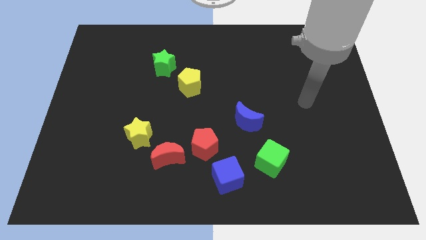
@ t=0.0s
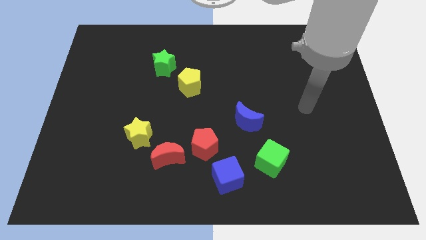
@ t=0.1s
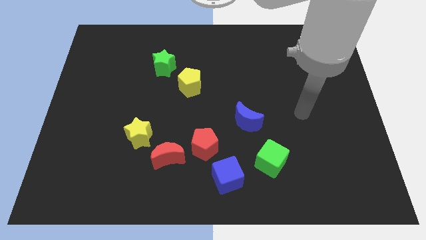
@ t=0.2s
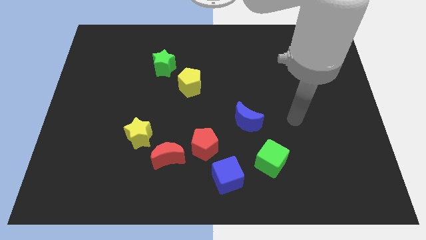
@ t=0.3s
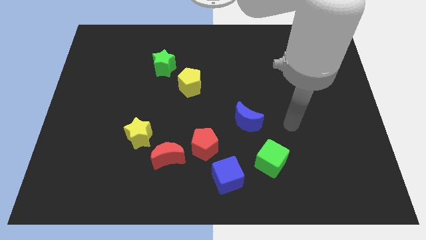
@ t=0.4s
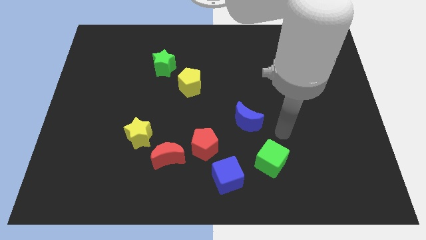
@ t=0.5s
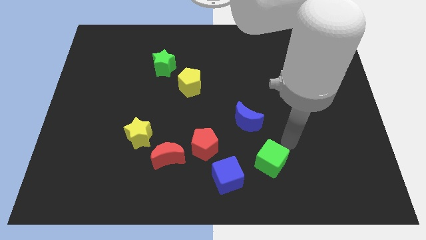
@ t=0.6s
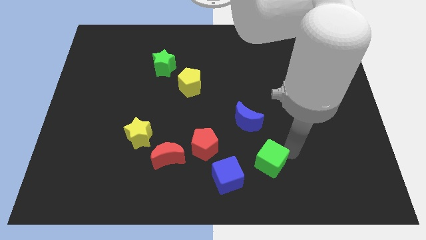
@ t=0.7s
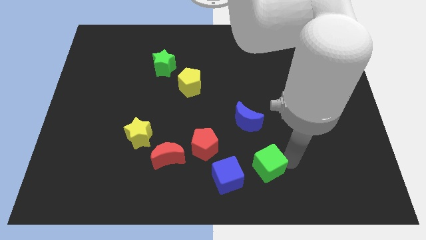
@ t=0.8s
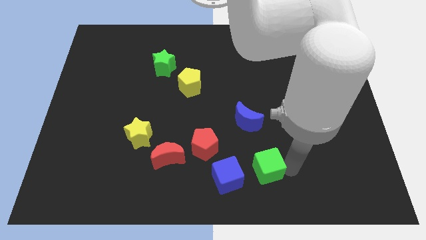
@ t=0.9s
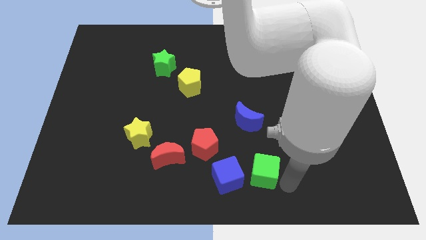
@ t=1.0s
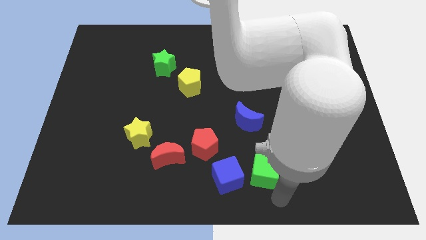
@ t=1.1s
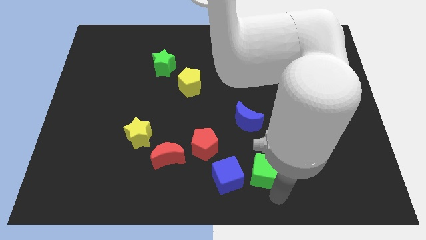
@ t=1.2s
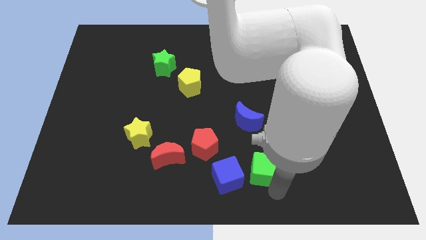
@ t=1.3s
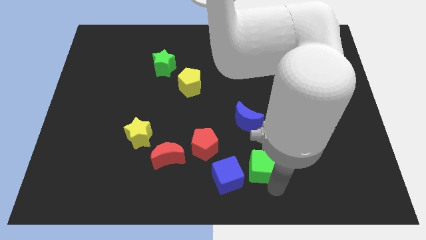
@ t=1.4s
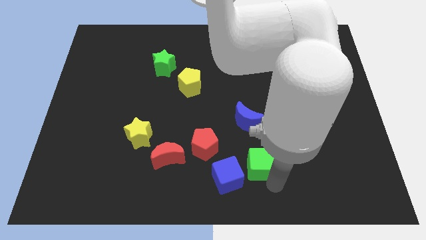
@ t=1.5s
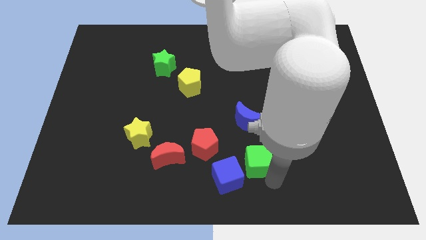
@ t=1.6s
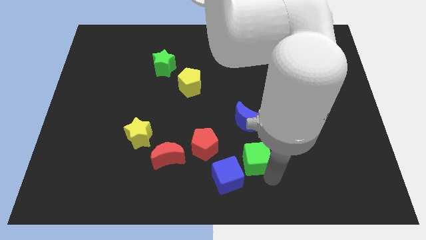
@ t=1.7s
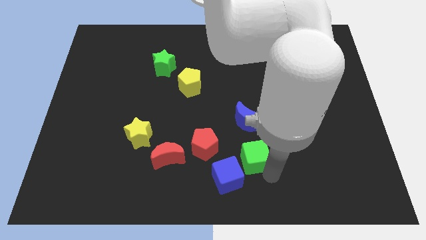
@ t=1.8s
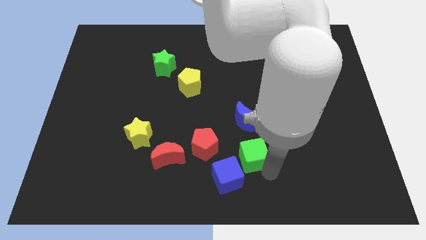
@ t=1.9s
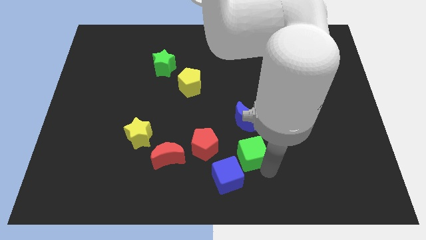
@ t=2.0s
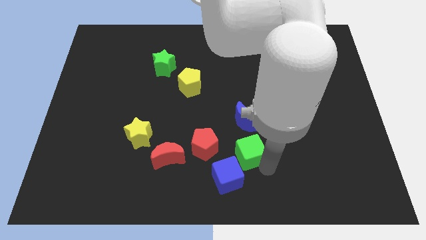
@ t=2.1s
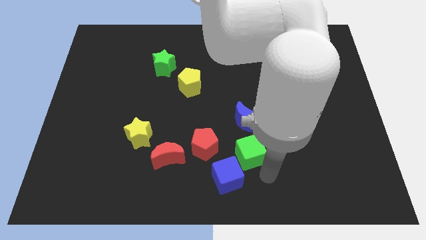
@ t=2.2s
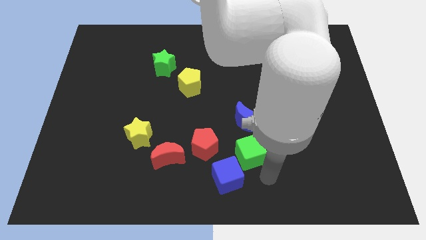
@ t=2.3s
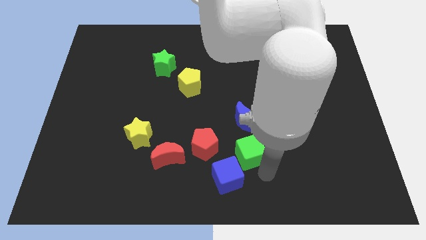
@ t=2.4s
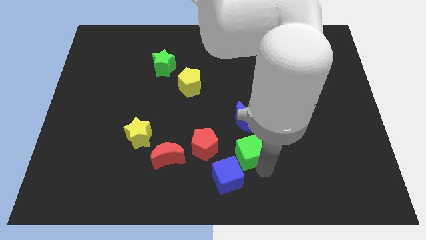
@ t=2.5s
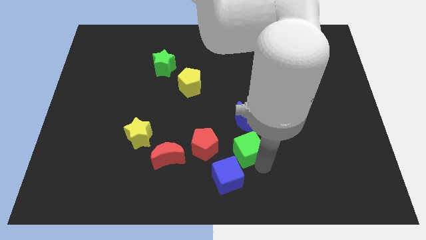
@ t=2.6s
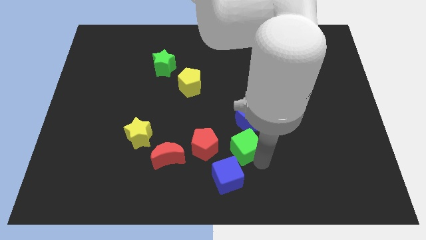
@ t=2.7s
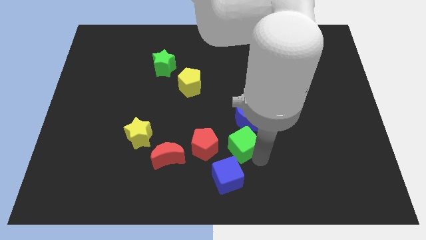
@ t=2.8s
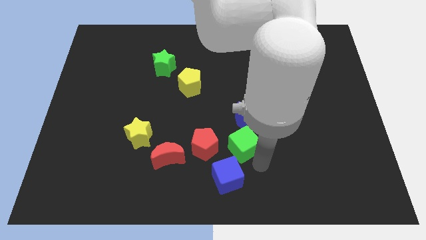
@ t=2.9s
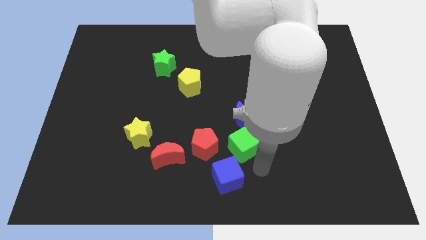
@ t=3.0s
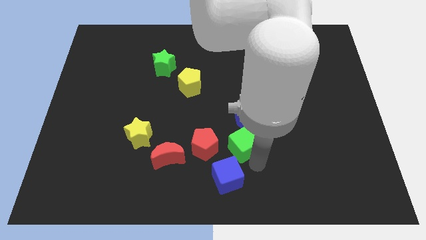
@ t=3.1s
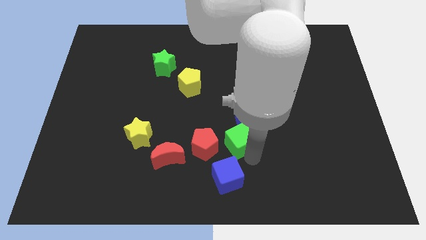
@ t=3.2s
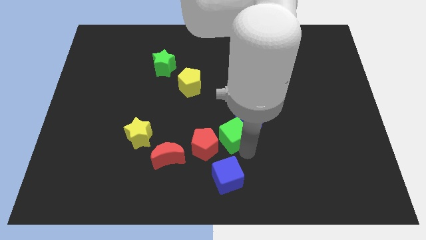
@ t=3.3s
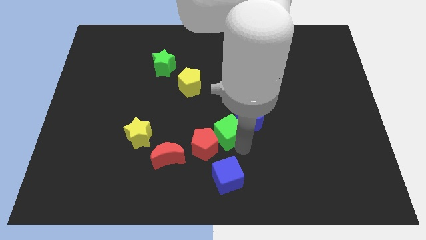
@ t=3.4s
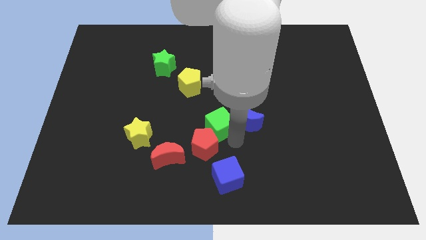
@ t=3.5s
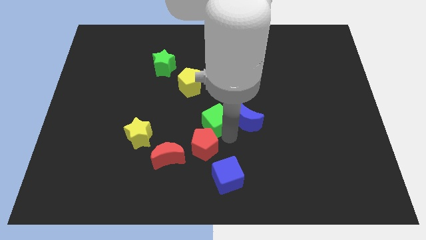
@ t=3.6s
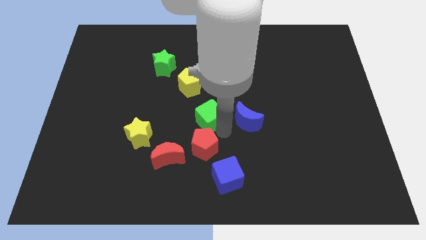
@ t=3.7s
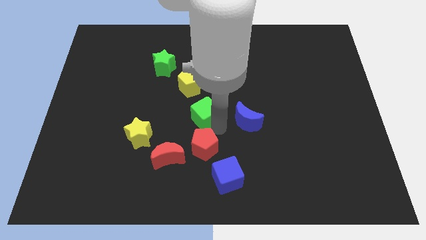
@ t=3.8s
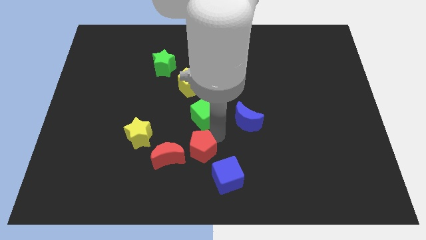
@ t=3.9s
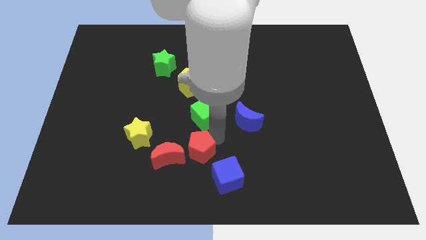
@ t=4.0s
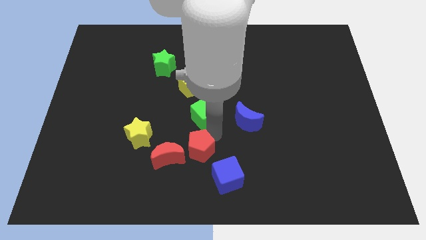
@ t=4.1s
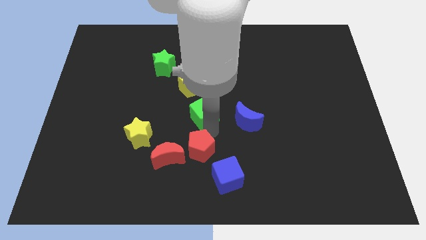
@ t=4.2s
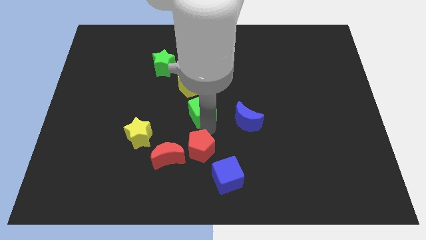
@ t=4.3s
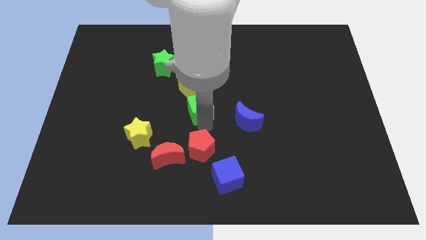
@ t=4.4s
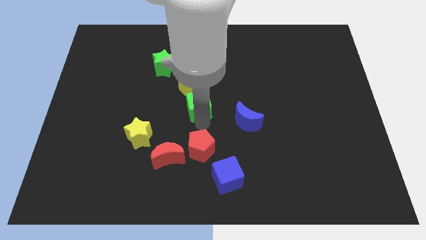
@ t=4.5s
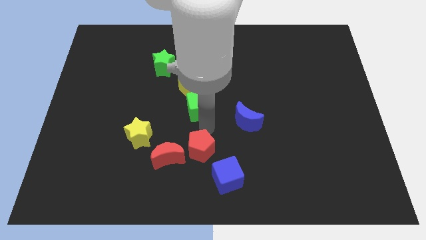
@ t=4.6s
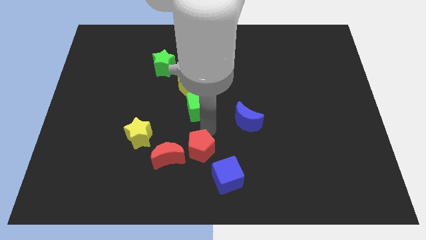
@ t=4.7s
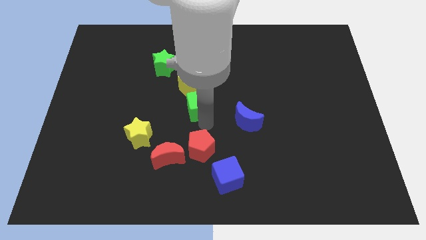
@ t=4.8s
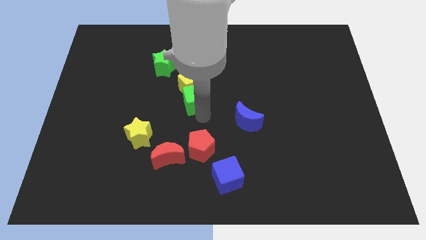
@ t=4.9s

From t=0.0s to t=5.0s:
put the green cube next to the yellow pentagon

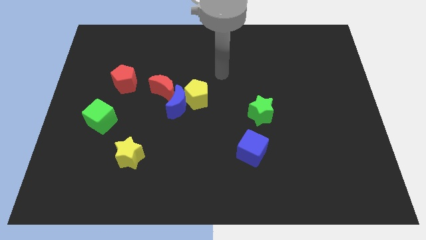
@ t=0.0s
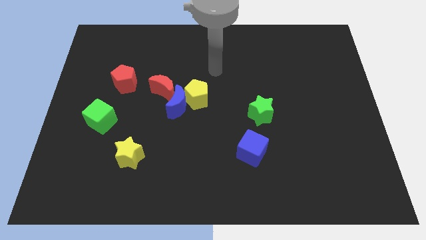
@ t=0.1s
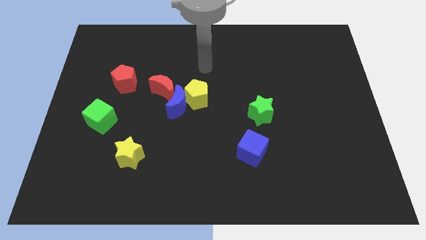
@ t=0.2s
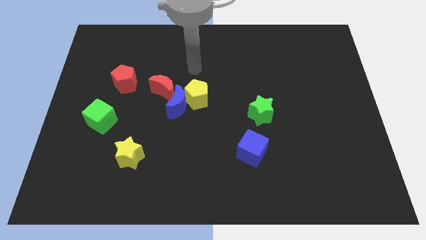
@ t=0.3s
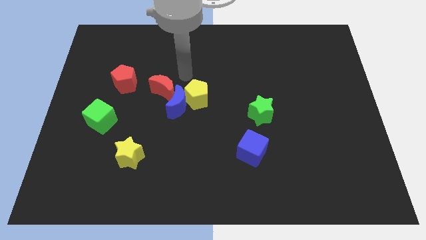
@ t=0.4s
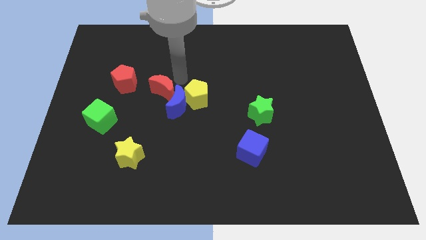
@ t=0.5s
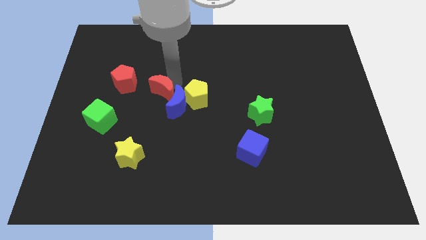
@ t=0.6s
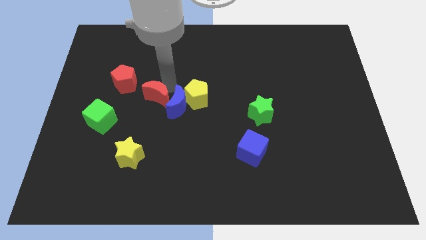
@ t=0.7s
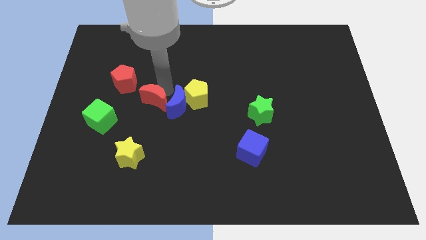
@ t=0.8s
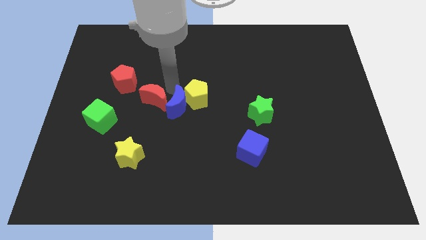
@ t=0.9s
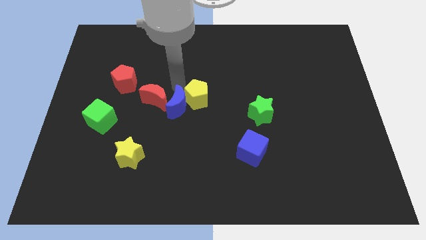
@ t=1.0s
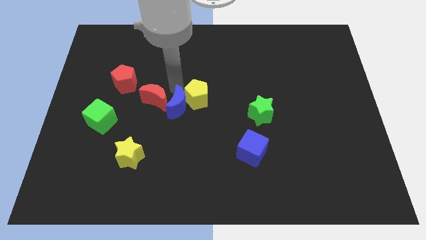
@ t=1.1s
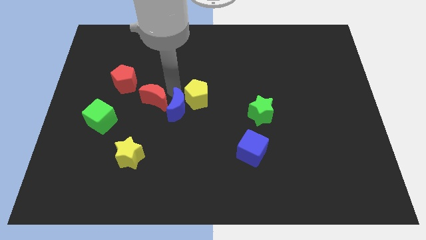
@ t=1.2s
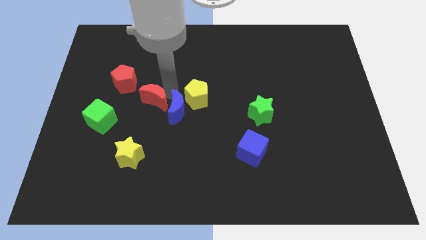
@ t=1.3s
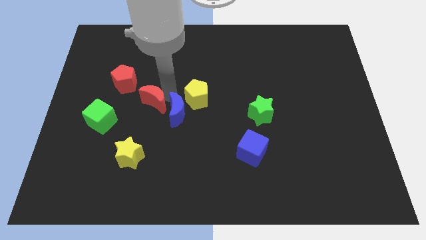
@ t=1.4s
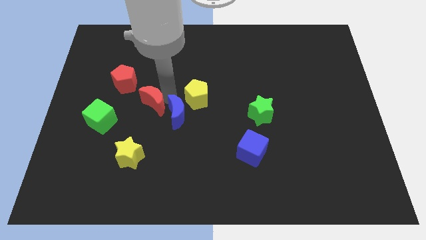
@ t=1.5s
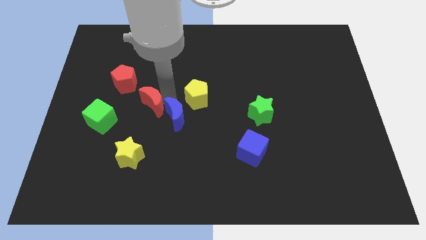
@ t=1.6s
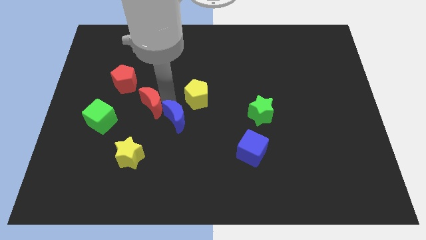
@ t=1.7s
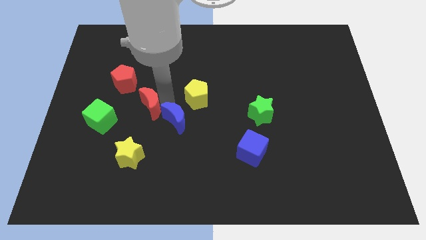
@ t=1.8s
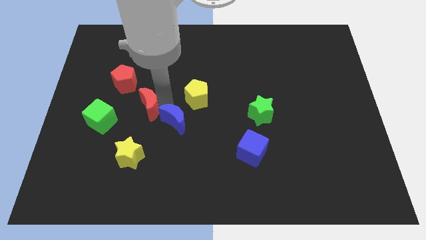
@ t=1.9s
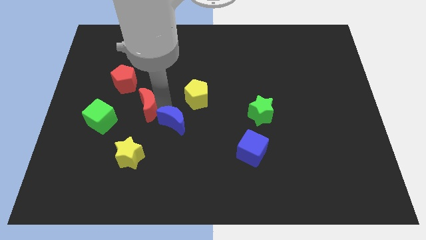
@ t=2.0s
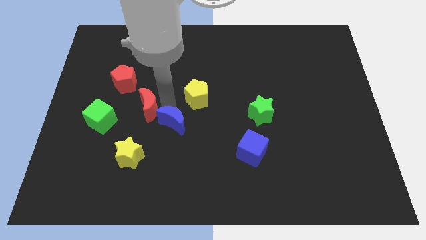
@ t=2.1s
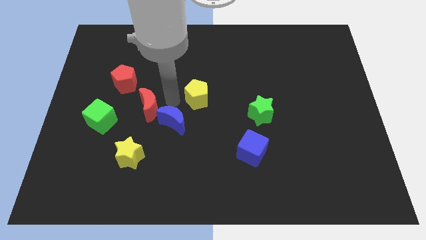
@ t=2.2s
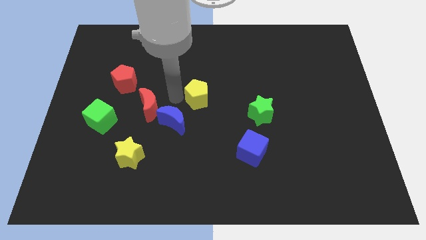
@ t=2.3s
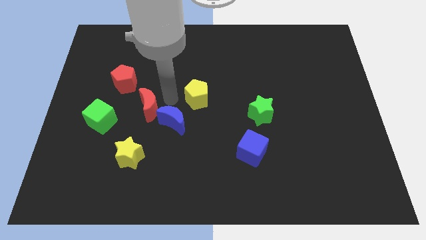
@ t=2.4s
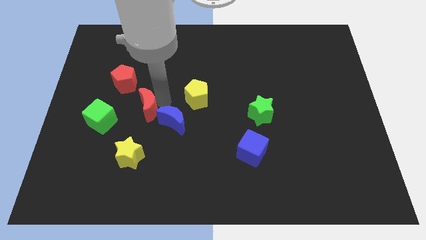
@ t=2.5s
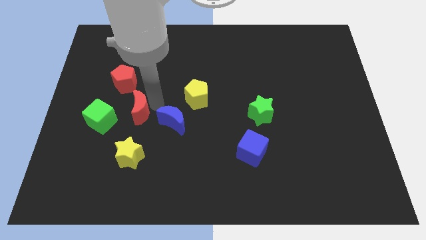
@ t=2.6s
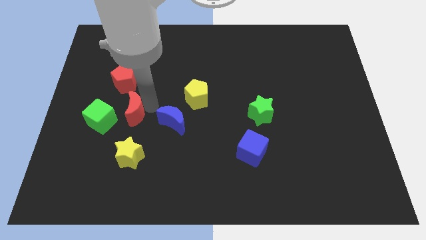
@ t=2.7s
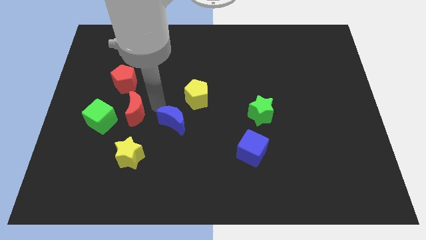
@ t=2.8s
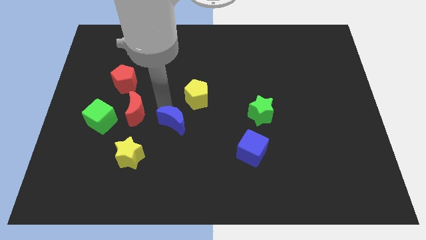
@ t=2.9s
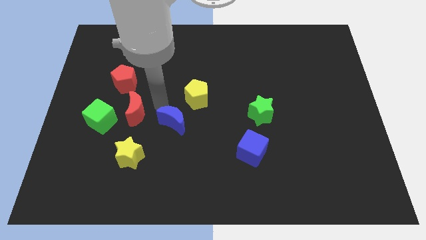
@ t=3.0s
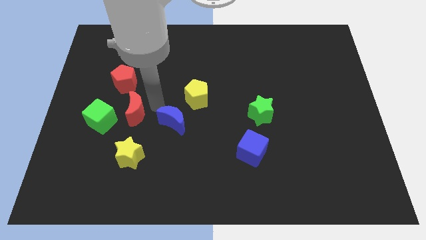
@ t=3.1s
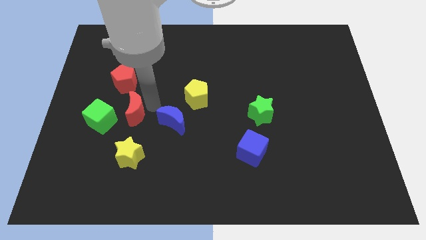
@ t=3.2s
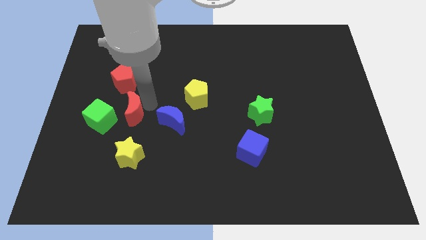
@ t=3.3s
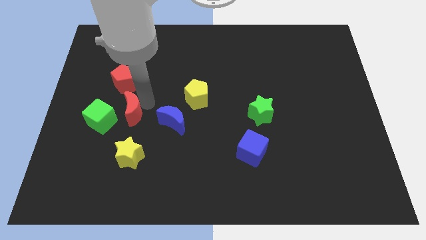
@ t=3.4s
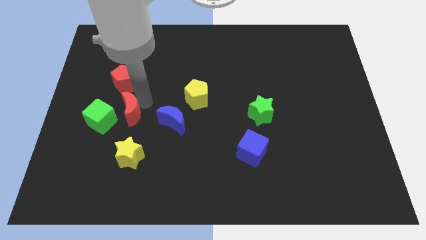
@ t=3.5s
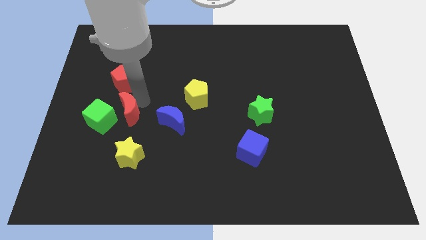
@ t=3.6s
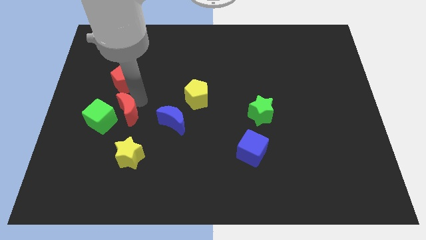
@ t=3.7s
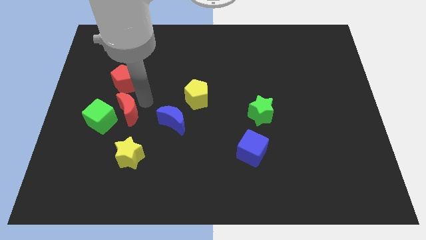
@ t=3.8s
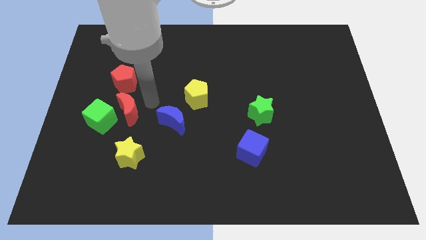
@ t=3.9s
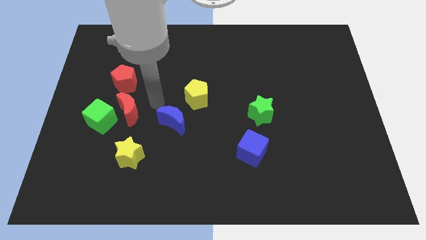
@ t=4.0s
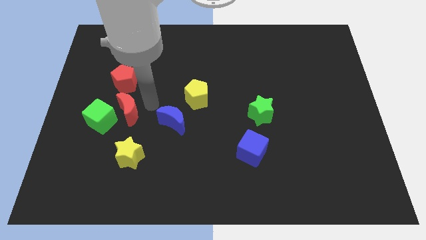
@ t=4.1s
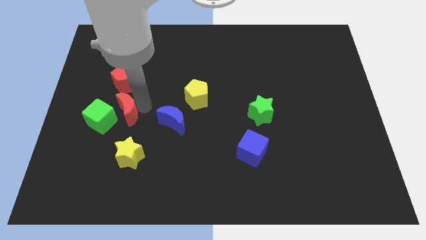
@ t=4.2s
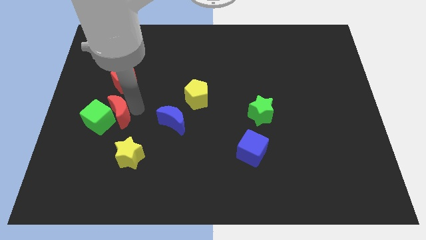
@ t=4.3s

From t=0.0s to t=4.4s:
put the red moon next to the green cube
